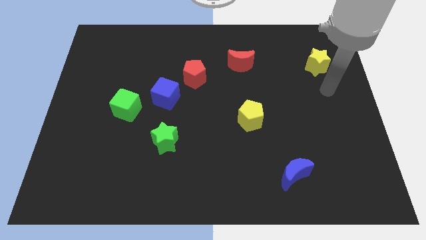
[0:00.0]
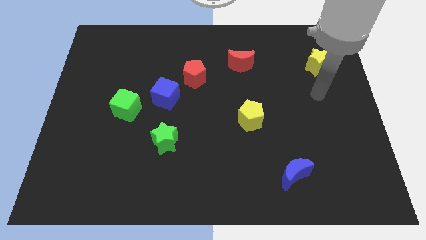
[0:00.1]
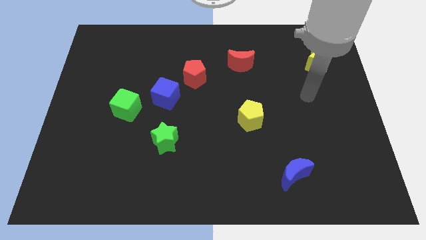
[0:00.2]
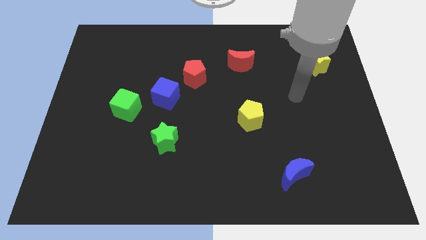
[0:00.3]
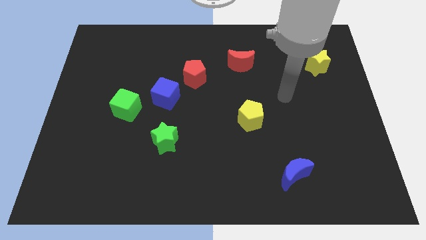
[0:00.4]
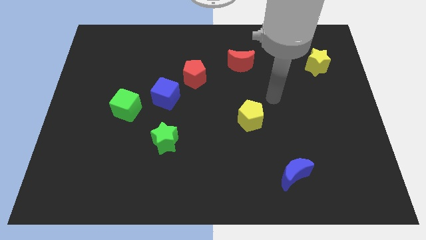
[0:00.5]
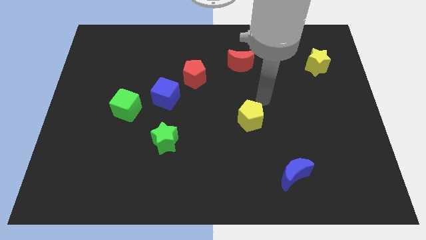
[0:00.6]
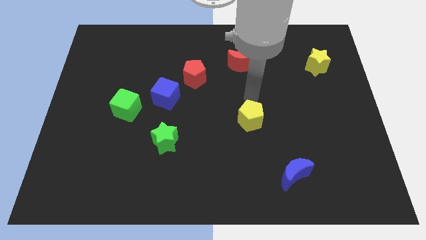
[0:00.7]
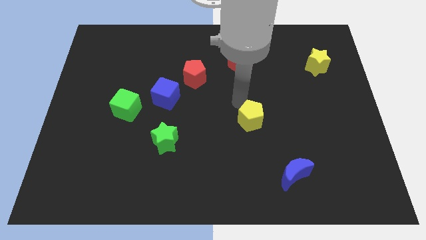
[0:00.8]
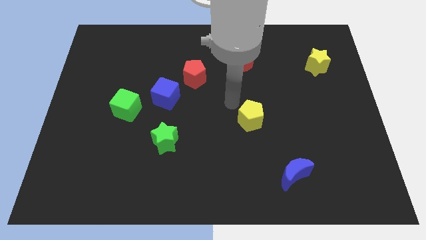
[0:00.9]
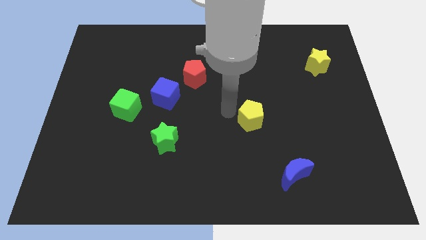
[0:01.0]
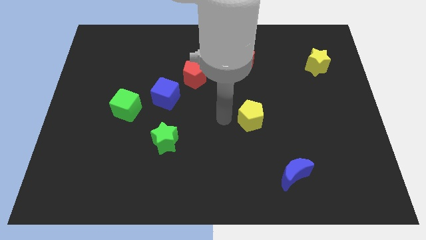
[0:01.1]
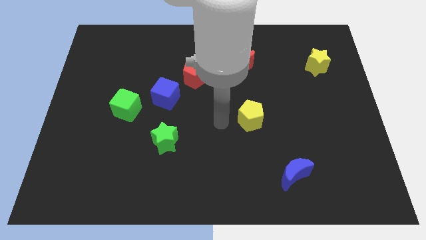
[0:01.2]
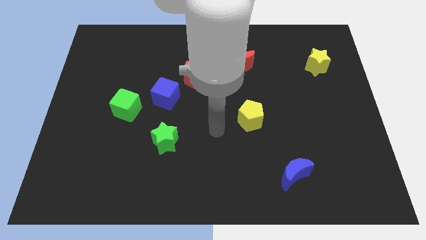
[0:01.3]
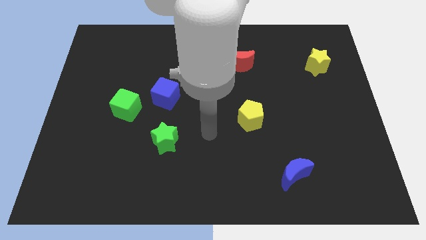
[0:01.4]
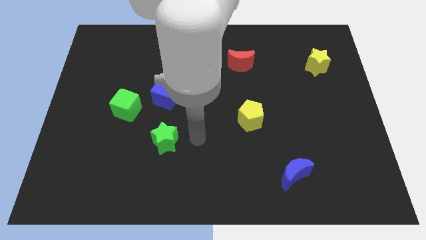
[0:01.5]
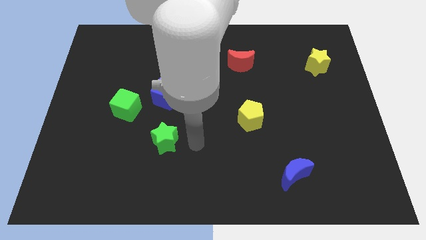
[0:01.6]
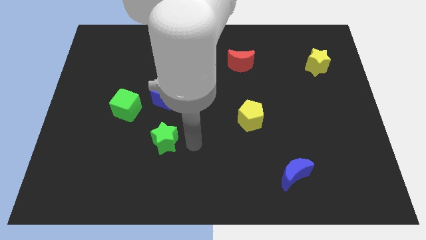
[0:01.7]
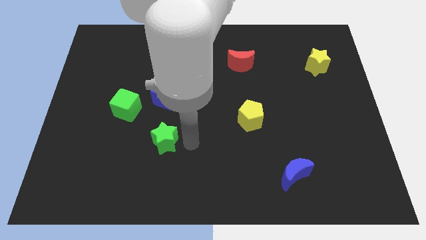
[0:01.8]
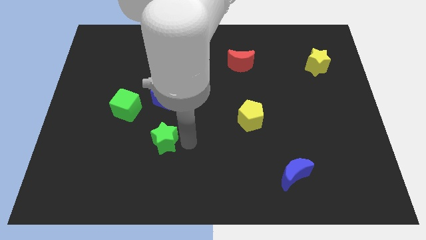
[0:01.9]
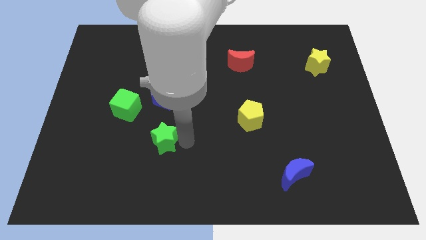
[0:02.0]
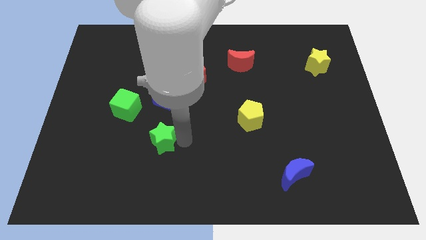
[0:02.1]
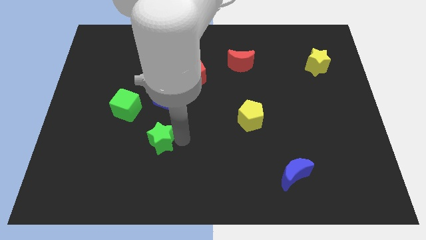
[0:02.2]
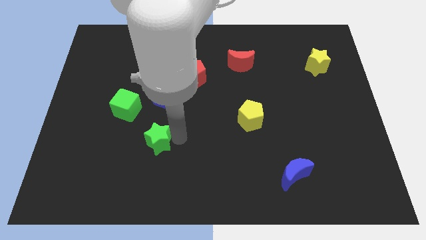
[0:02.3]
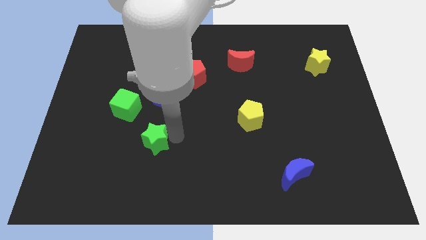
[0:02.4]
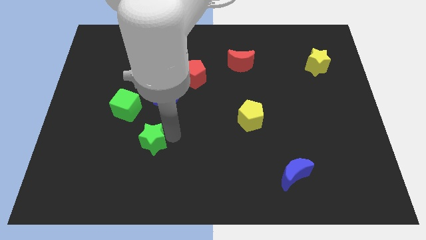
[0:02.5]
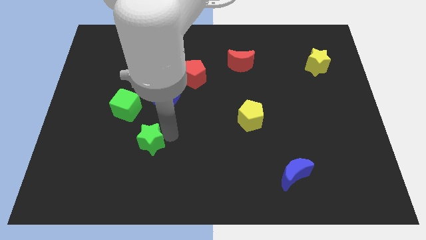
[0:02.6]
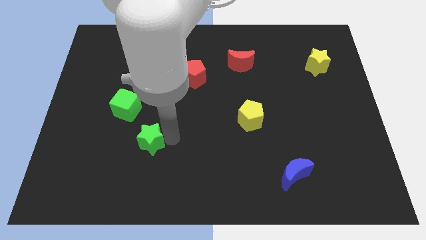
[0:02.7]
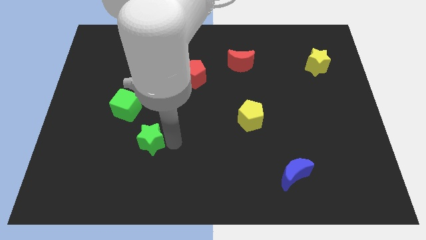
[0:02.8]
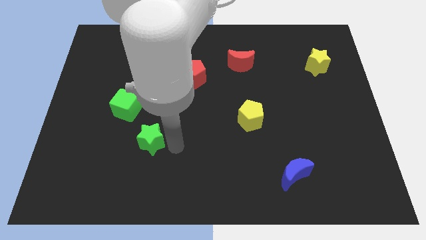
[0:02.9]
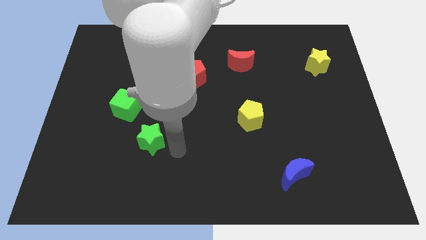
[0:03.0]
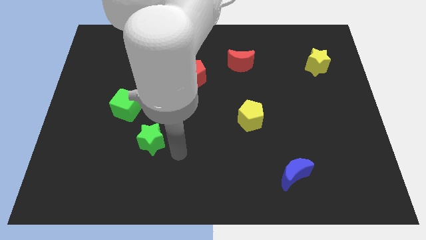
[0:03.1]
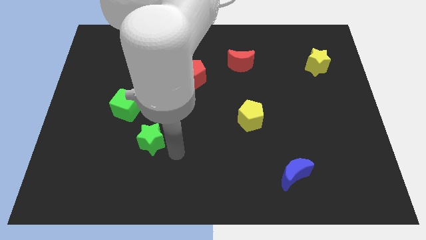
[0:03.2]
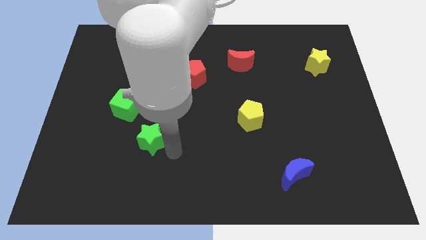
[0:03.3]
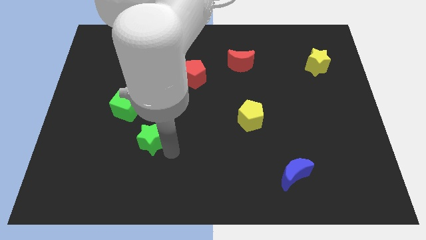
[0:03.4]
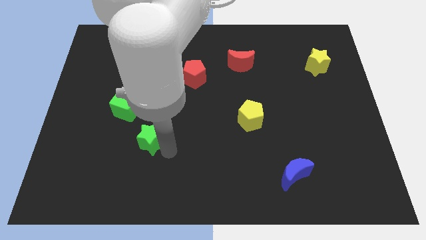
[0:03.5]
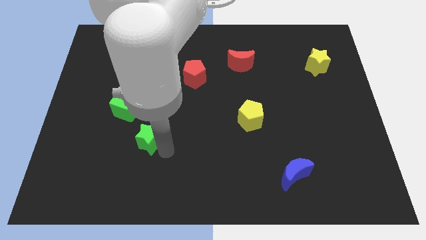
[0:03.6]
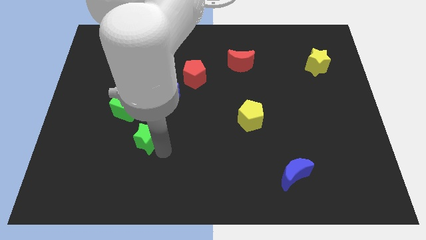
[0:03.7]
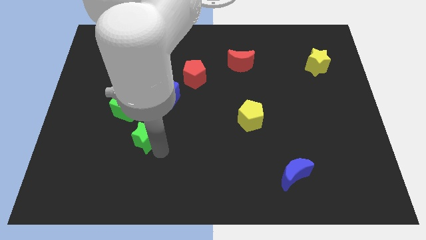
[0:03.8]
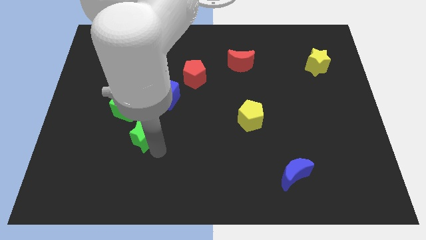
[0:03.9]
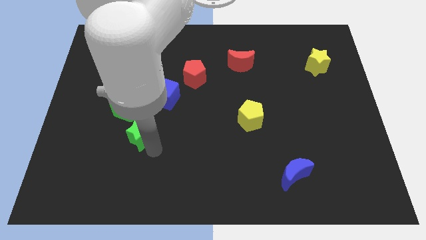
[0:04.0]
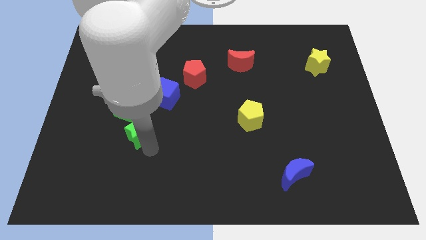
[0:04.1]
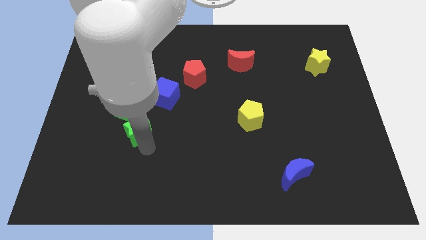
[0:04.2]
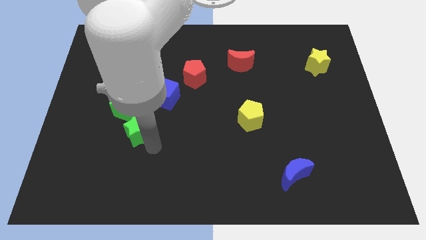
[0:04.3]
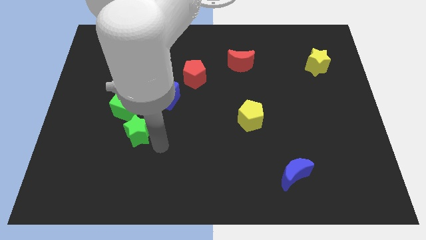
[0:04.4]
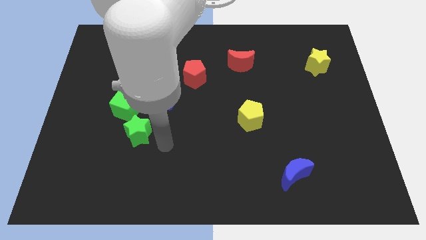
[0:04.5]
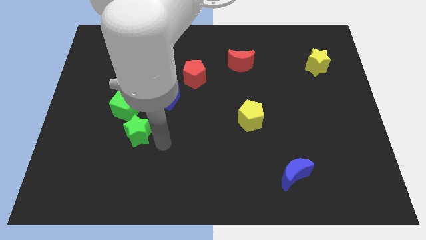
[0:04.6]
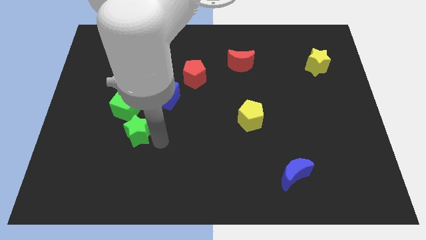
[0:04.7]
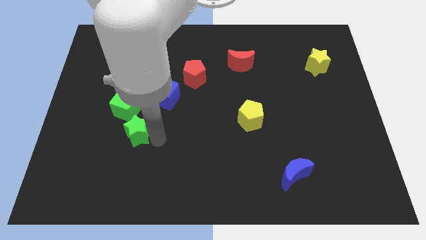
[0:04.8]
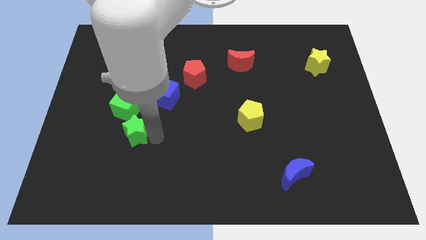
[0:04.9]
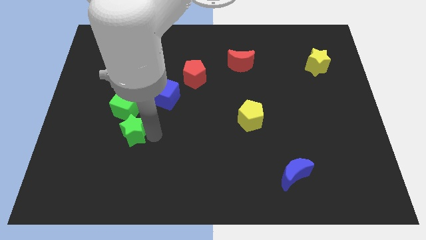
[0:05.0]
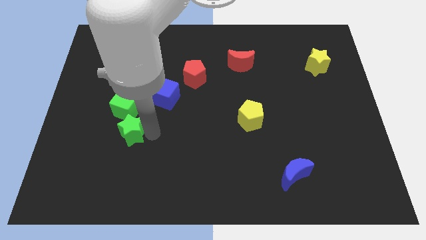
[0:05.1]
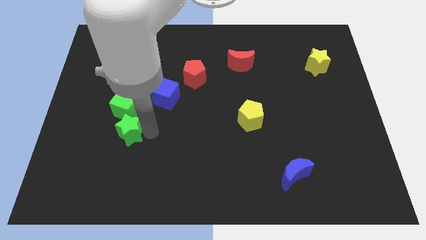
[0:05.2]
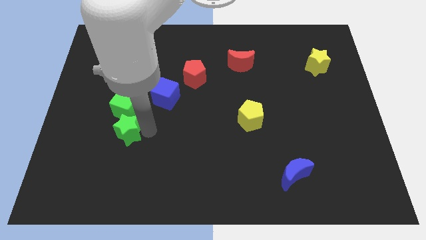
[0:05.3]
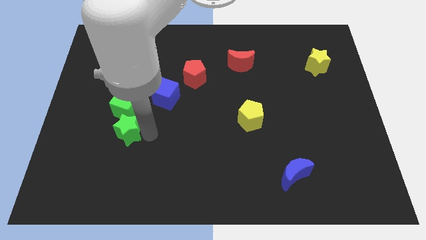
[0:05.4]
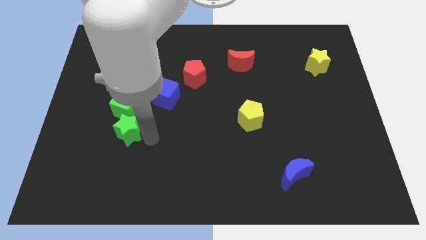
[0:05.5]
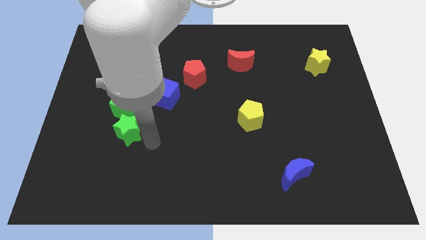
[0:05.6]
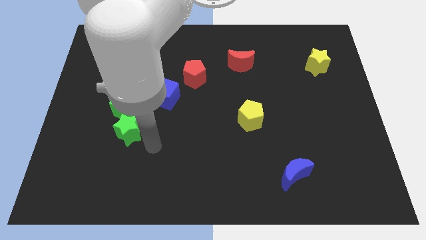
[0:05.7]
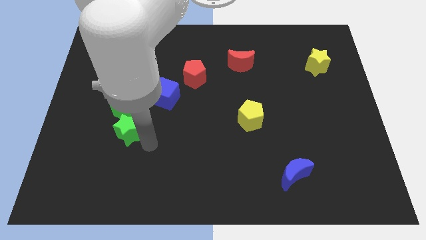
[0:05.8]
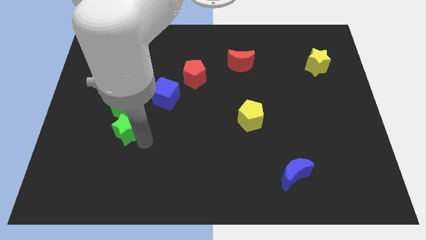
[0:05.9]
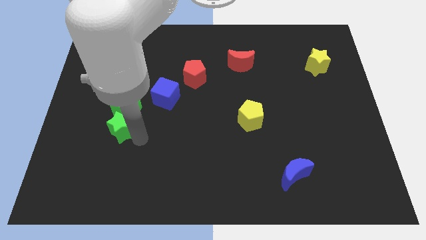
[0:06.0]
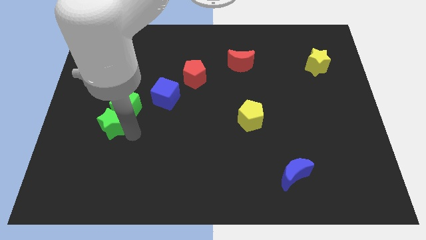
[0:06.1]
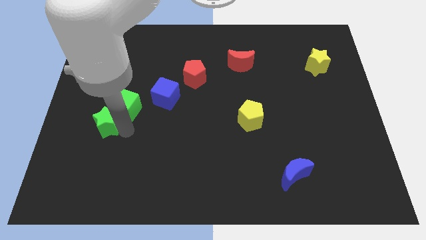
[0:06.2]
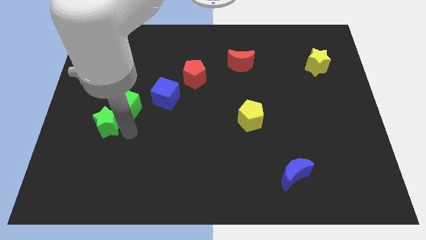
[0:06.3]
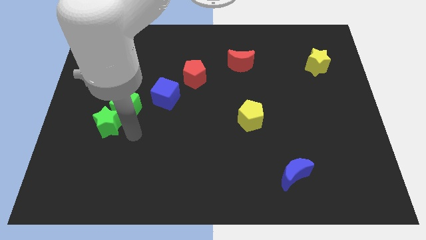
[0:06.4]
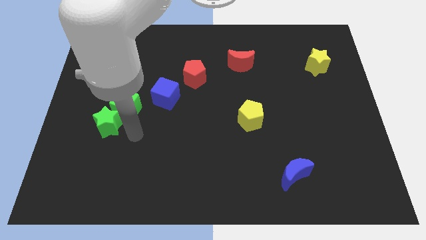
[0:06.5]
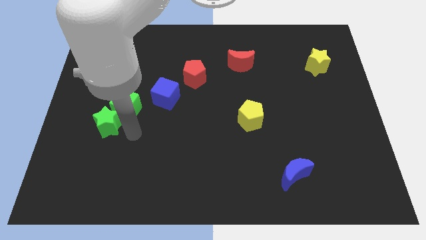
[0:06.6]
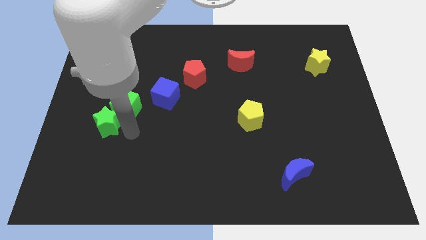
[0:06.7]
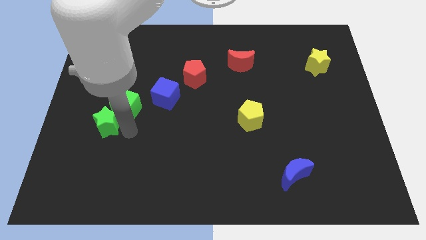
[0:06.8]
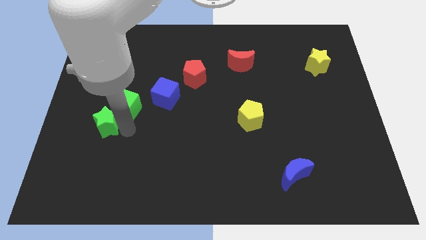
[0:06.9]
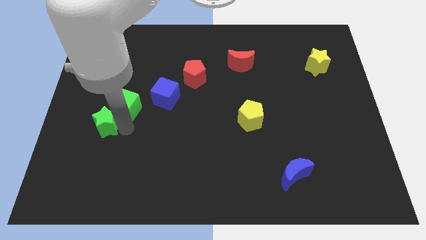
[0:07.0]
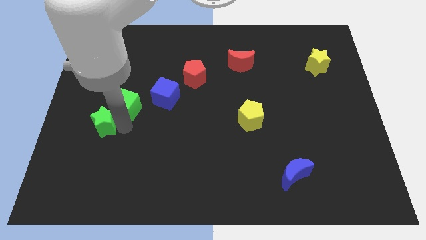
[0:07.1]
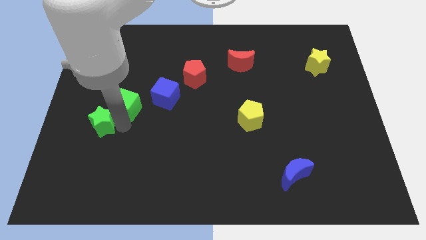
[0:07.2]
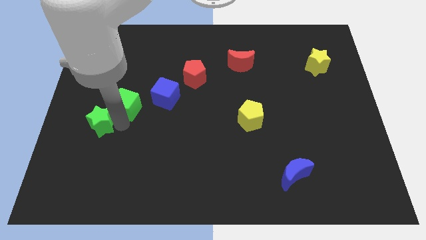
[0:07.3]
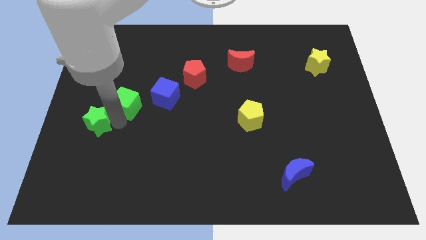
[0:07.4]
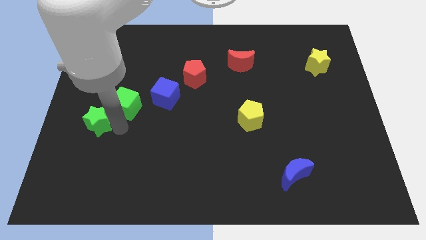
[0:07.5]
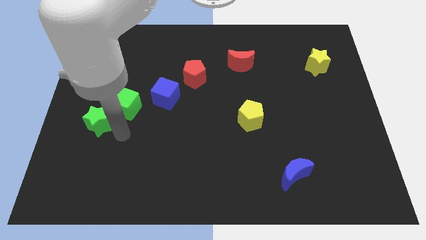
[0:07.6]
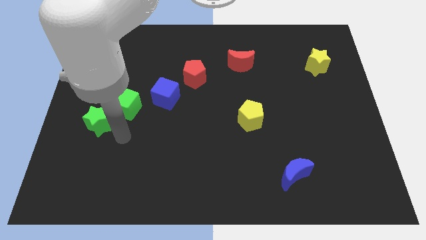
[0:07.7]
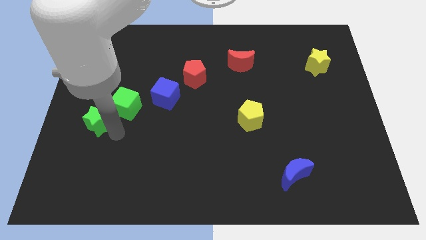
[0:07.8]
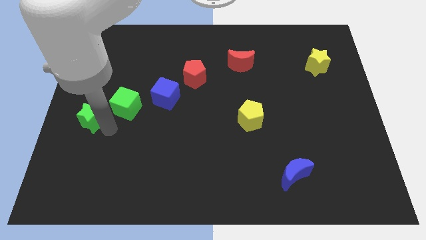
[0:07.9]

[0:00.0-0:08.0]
put the green star to the left side

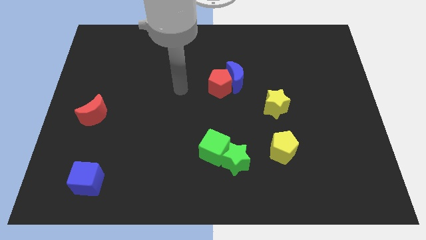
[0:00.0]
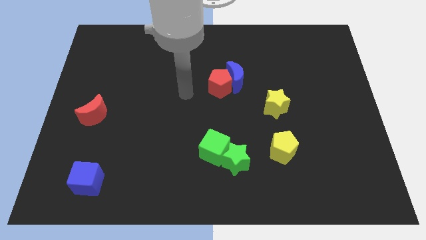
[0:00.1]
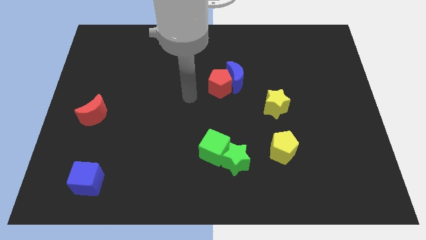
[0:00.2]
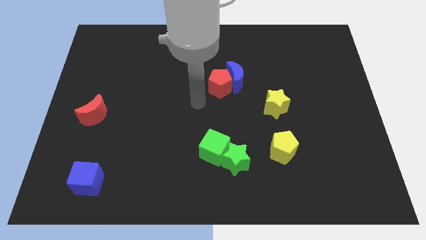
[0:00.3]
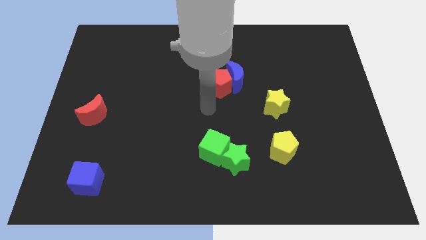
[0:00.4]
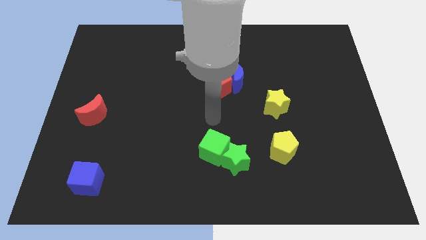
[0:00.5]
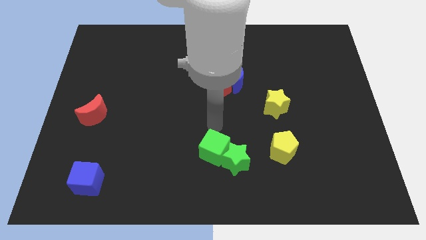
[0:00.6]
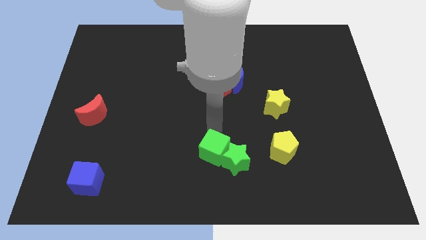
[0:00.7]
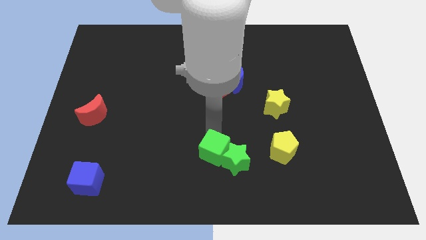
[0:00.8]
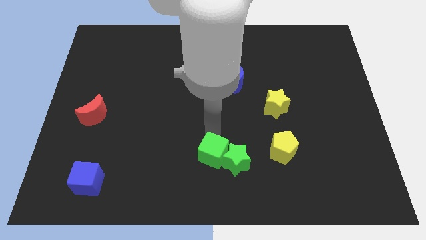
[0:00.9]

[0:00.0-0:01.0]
put the green cube to the bottom
